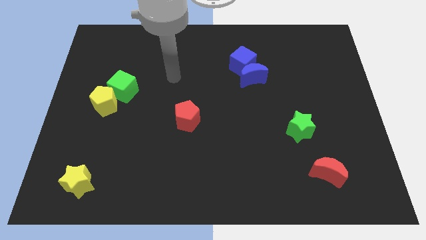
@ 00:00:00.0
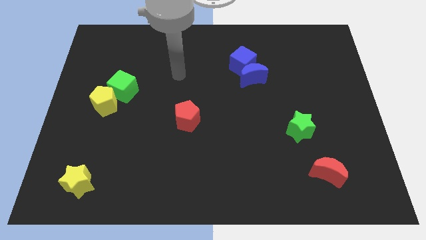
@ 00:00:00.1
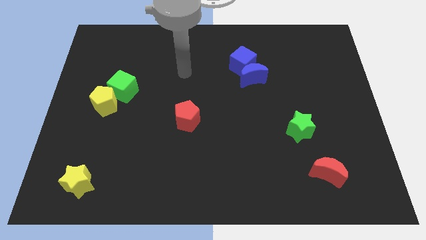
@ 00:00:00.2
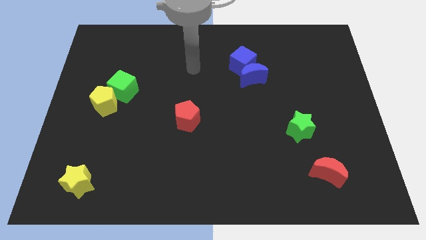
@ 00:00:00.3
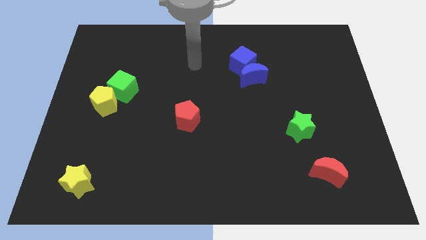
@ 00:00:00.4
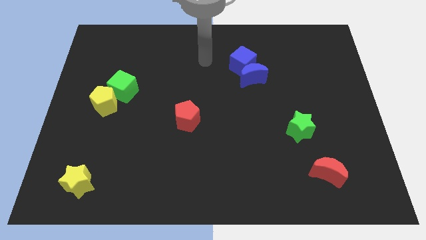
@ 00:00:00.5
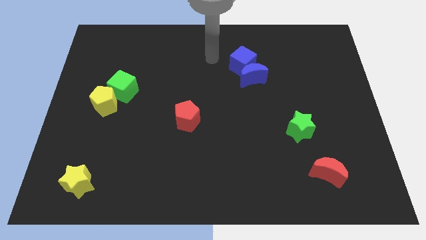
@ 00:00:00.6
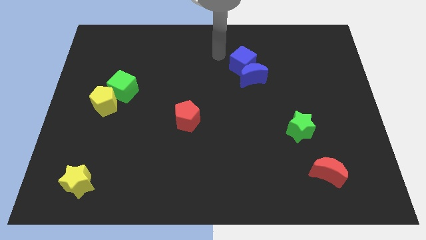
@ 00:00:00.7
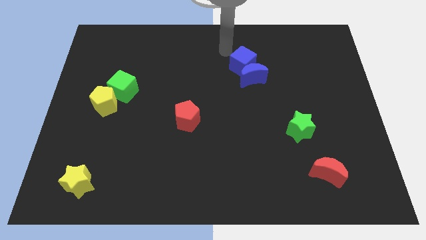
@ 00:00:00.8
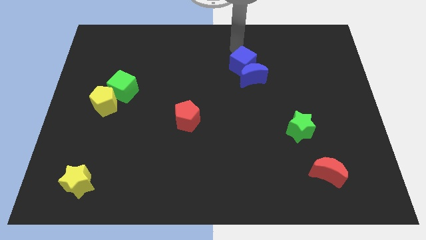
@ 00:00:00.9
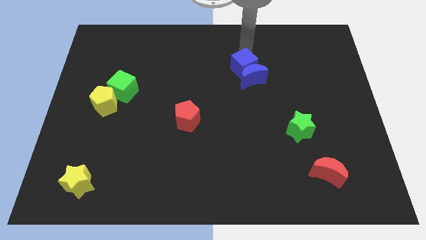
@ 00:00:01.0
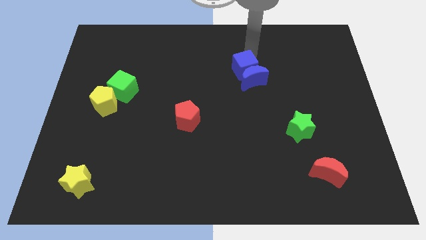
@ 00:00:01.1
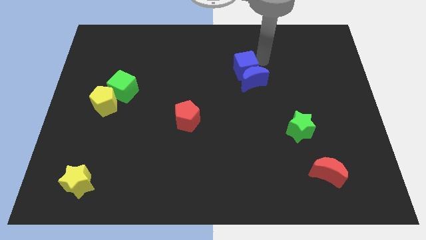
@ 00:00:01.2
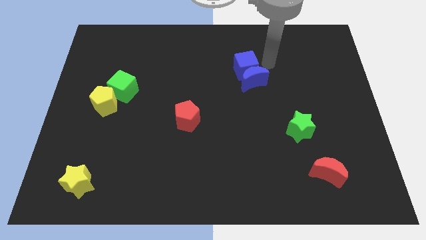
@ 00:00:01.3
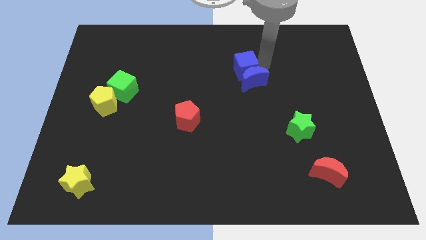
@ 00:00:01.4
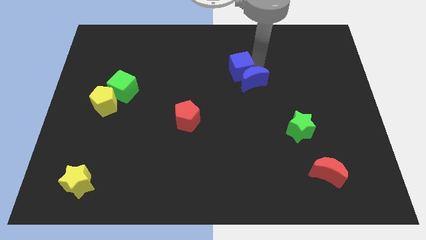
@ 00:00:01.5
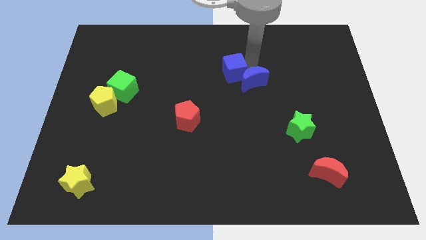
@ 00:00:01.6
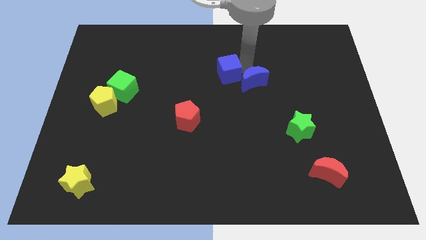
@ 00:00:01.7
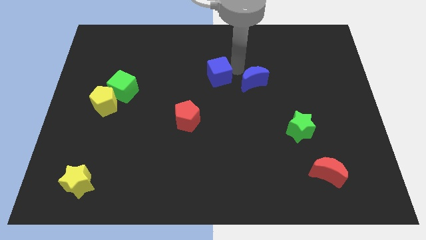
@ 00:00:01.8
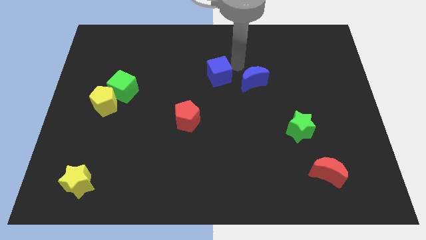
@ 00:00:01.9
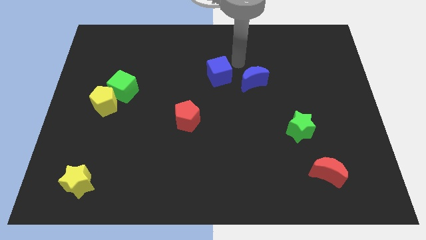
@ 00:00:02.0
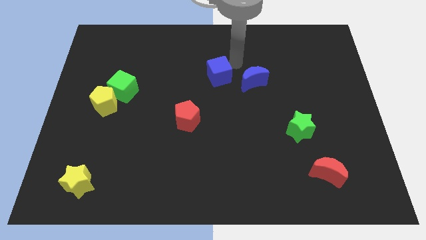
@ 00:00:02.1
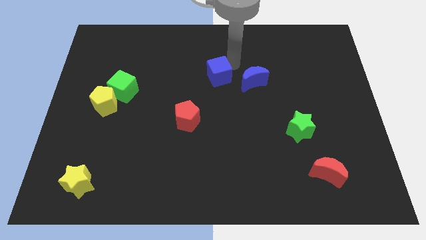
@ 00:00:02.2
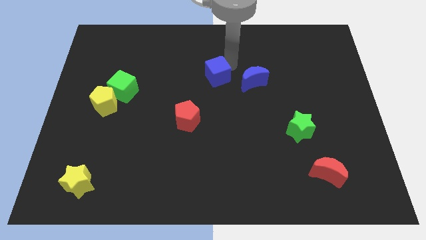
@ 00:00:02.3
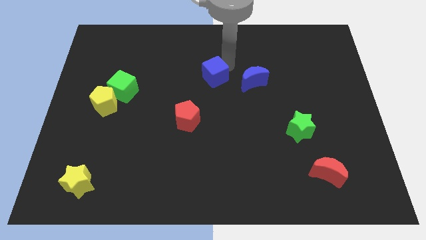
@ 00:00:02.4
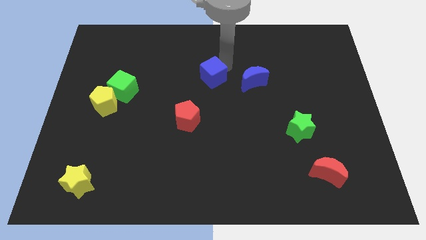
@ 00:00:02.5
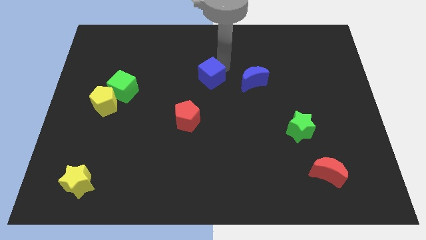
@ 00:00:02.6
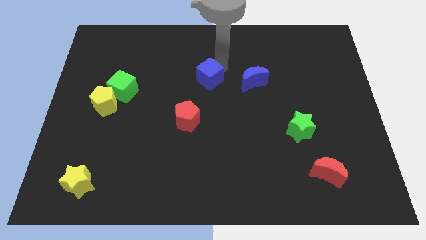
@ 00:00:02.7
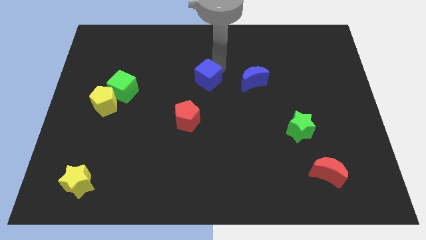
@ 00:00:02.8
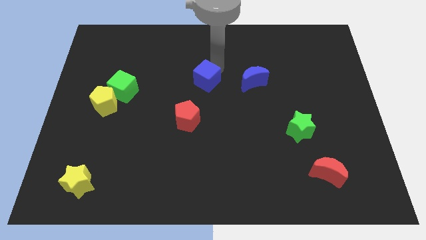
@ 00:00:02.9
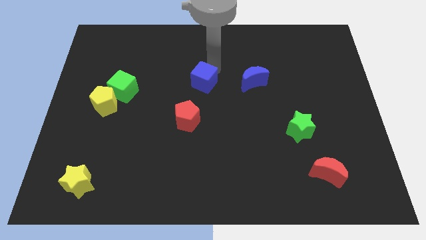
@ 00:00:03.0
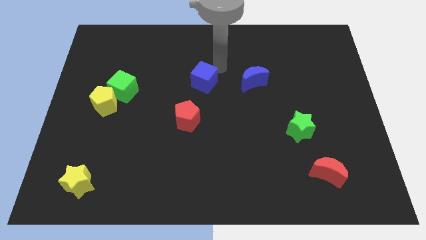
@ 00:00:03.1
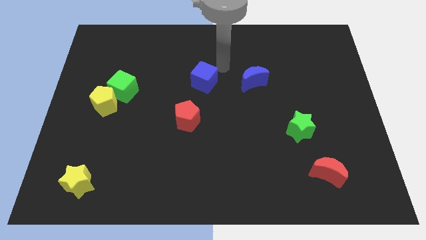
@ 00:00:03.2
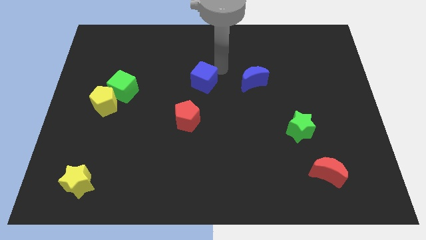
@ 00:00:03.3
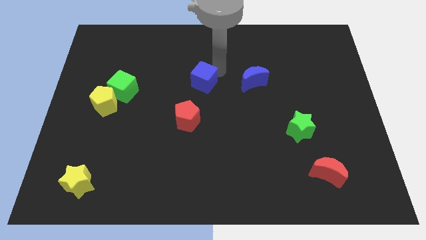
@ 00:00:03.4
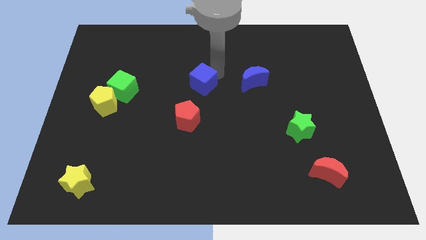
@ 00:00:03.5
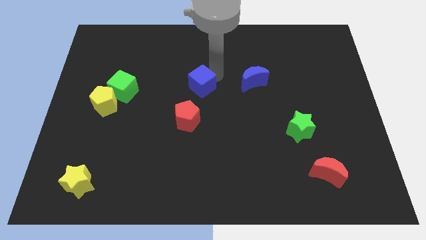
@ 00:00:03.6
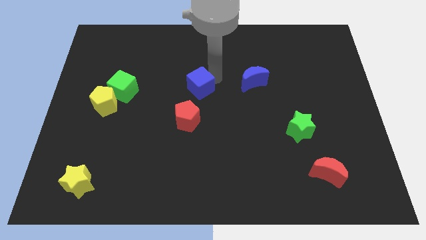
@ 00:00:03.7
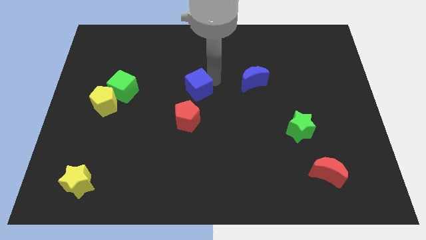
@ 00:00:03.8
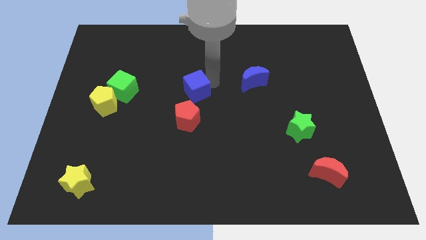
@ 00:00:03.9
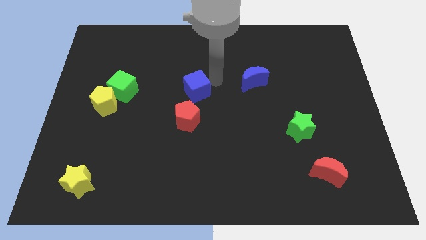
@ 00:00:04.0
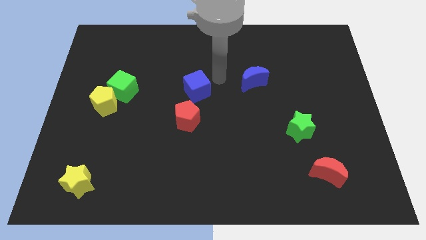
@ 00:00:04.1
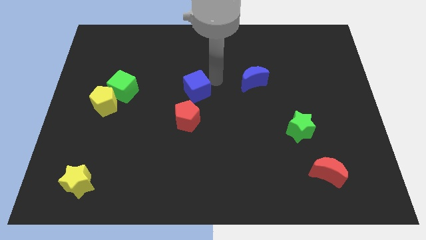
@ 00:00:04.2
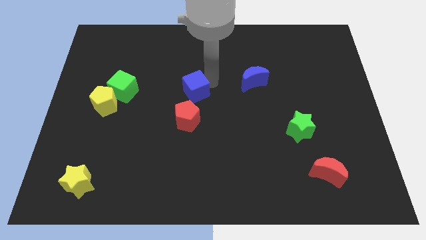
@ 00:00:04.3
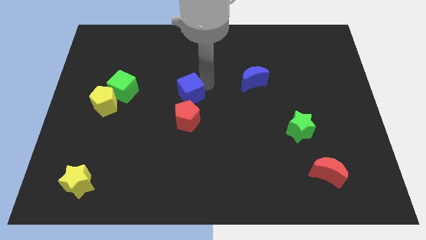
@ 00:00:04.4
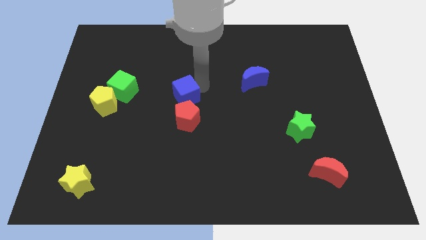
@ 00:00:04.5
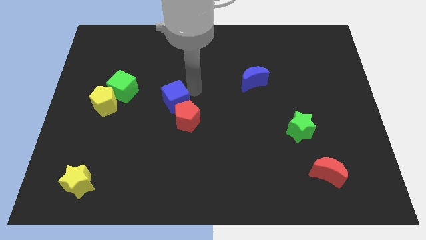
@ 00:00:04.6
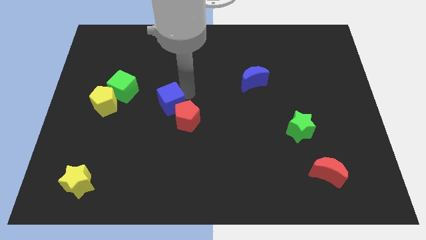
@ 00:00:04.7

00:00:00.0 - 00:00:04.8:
push the blue cube left of the red pentagon

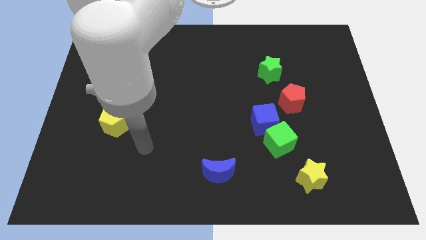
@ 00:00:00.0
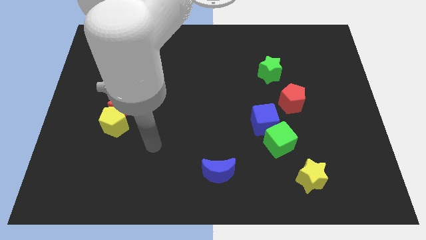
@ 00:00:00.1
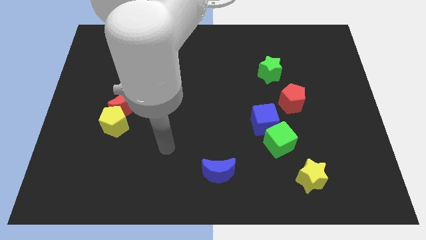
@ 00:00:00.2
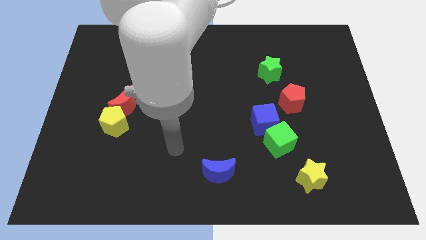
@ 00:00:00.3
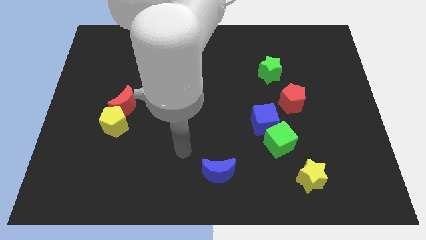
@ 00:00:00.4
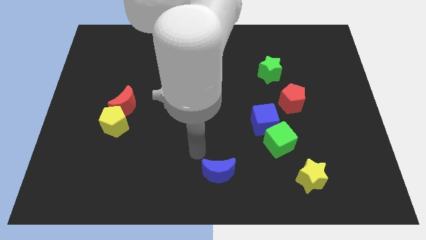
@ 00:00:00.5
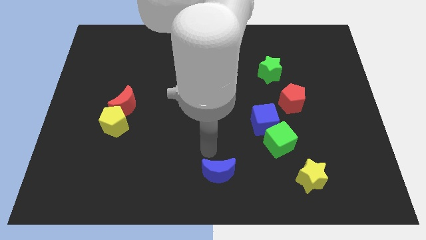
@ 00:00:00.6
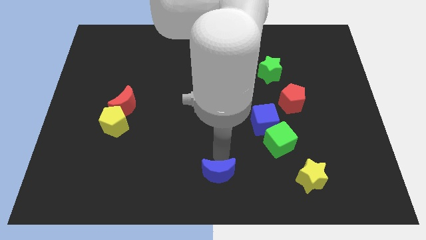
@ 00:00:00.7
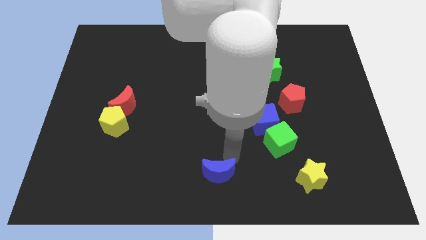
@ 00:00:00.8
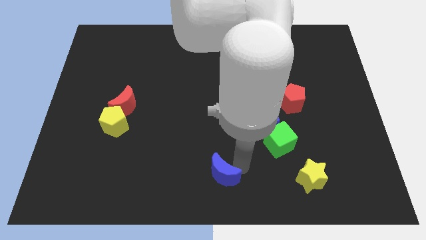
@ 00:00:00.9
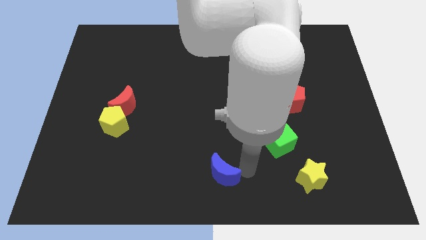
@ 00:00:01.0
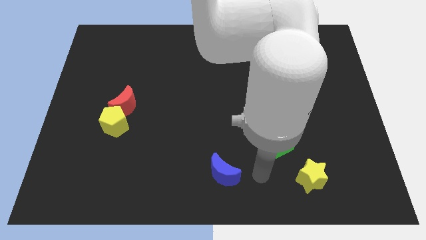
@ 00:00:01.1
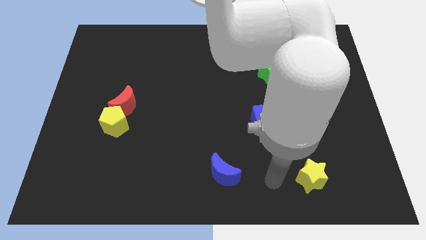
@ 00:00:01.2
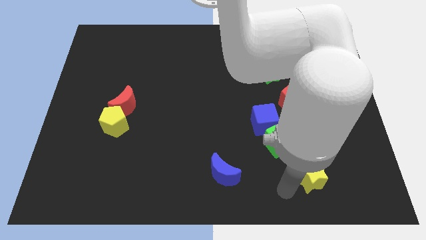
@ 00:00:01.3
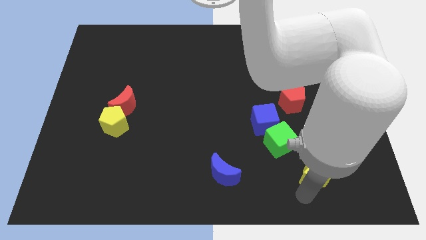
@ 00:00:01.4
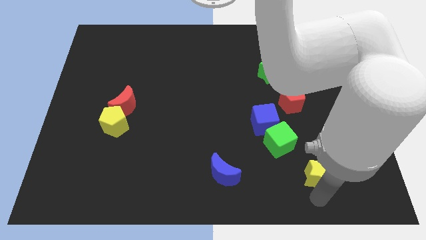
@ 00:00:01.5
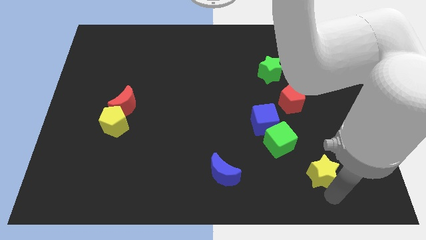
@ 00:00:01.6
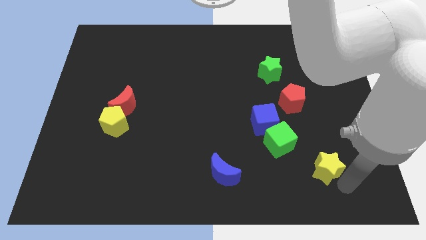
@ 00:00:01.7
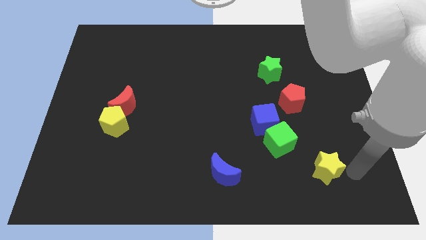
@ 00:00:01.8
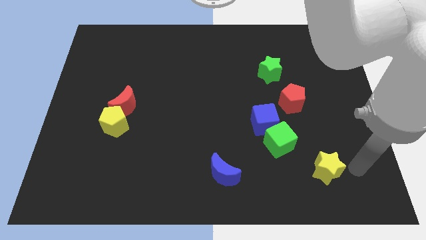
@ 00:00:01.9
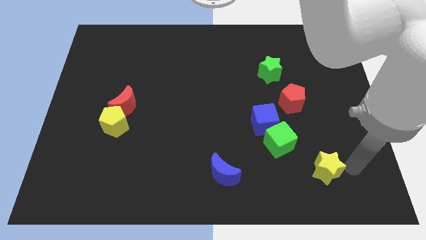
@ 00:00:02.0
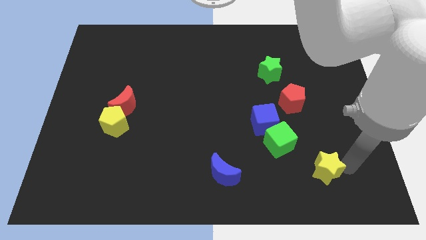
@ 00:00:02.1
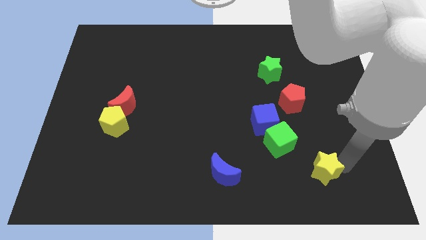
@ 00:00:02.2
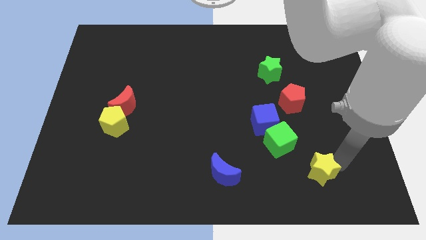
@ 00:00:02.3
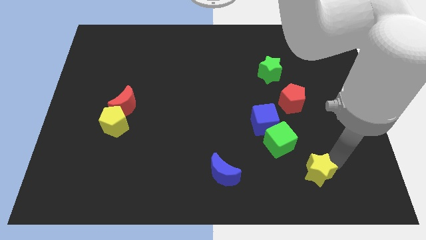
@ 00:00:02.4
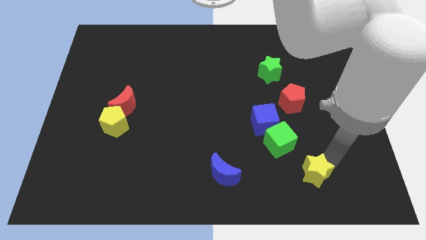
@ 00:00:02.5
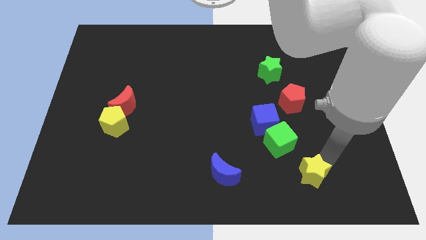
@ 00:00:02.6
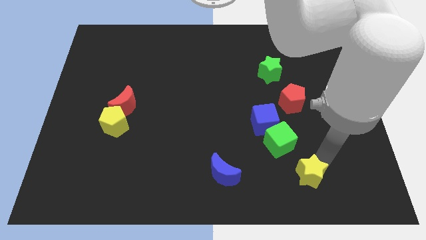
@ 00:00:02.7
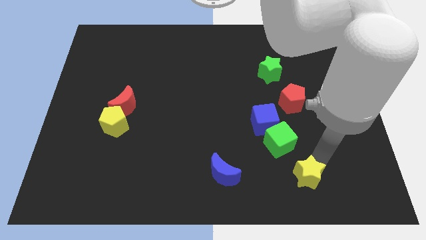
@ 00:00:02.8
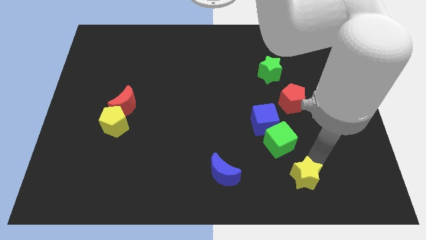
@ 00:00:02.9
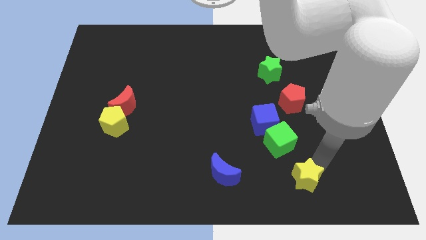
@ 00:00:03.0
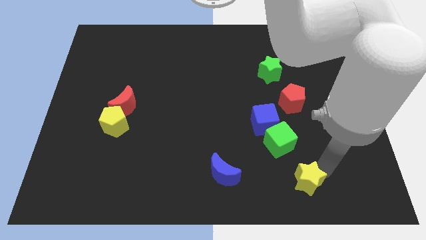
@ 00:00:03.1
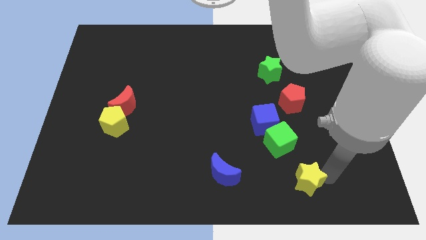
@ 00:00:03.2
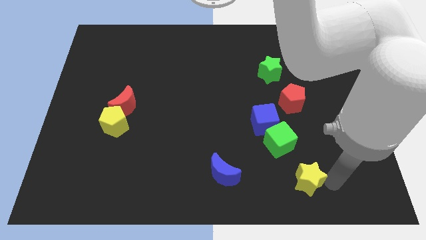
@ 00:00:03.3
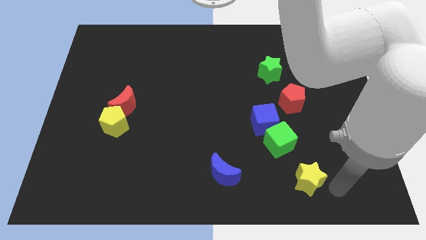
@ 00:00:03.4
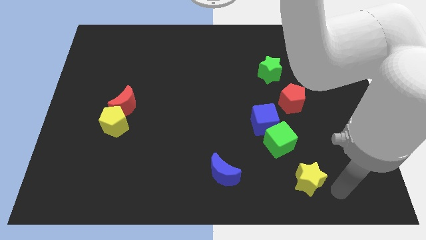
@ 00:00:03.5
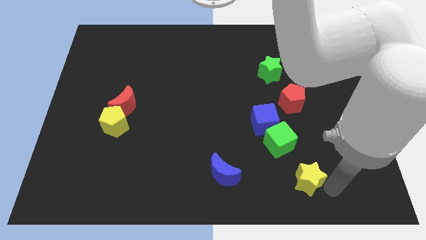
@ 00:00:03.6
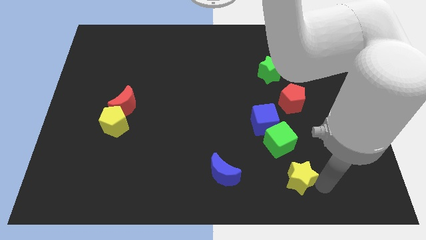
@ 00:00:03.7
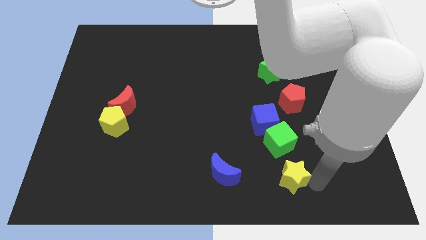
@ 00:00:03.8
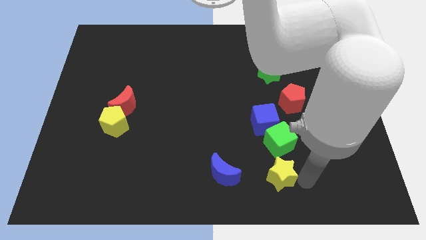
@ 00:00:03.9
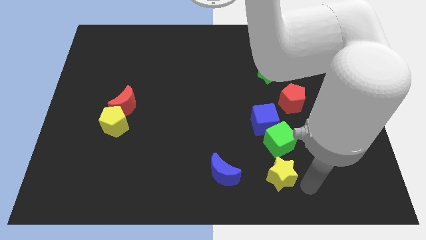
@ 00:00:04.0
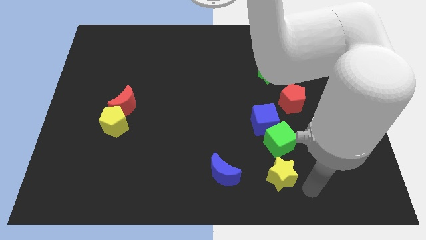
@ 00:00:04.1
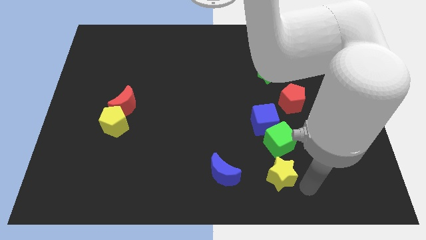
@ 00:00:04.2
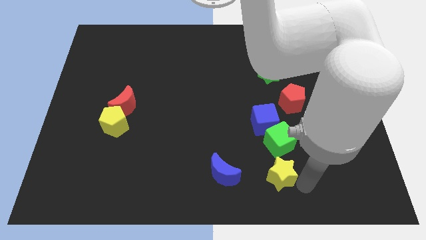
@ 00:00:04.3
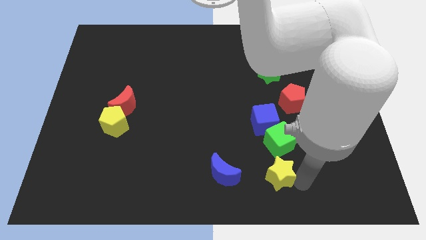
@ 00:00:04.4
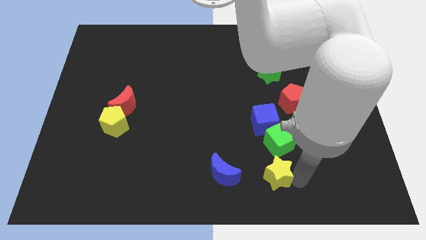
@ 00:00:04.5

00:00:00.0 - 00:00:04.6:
put the yellow star diagonally down and to the left of the green cube
